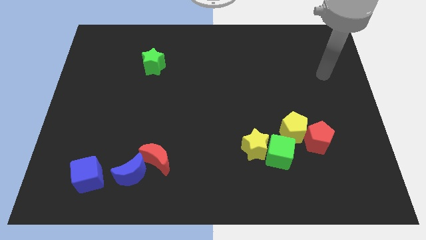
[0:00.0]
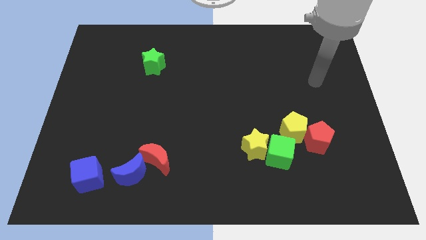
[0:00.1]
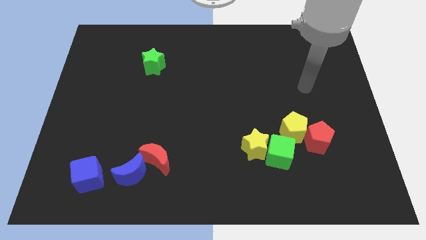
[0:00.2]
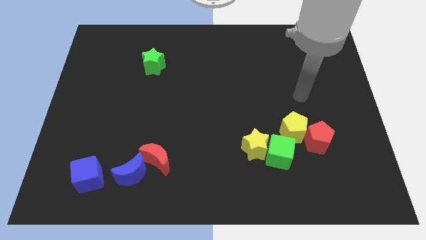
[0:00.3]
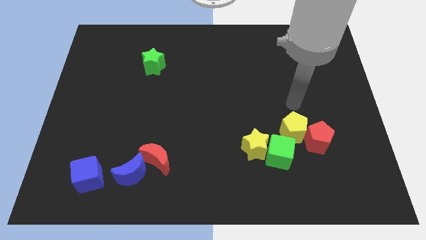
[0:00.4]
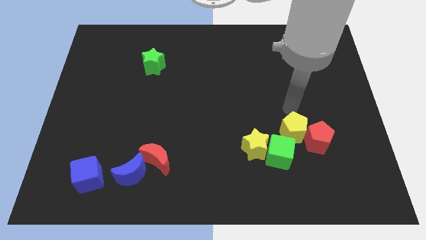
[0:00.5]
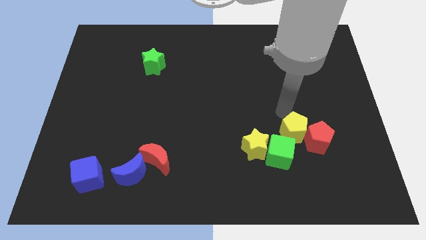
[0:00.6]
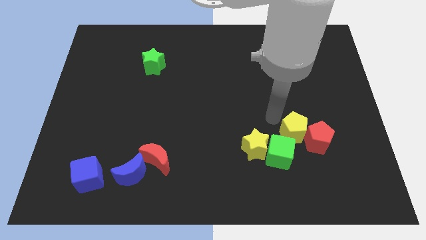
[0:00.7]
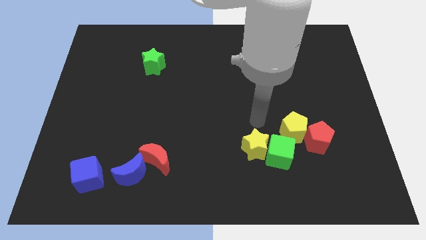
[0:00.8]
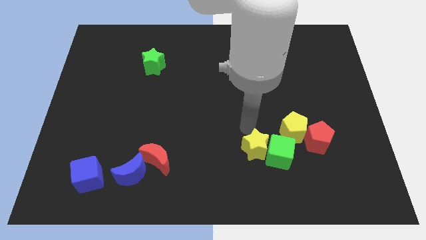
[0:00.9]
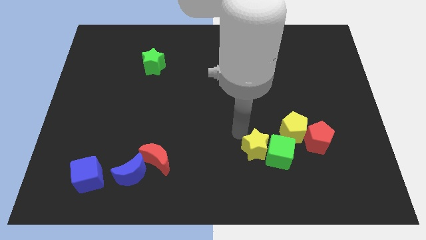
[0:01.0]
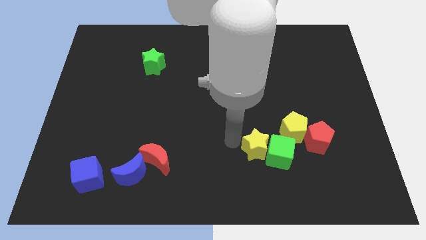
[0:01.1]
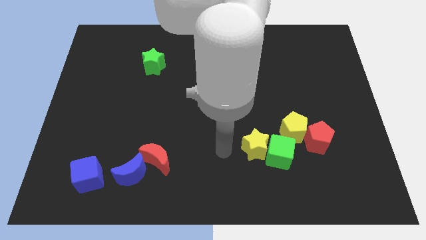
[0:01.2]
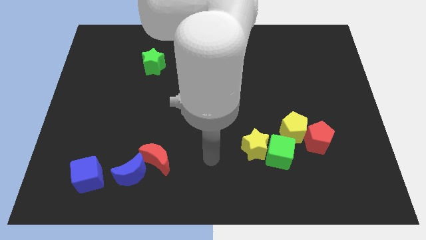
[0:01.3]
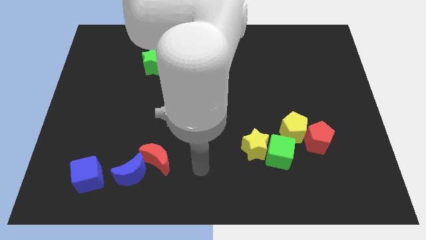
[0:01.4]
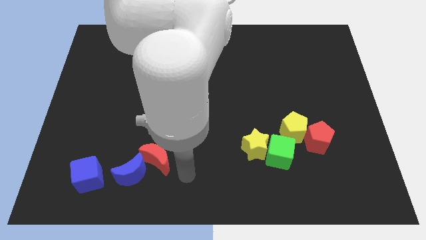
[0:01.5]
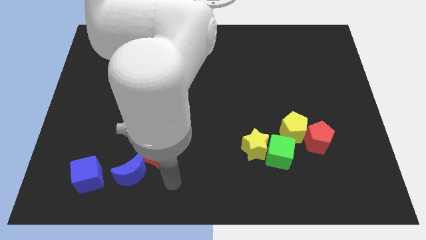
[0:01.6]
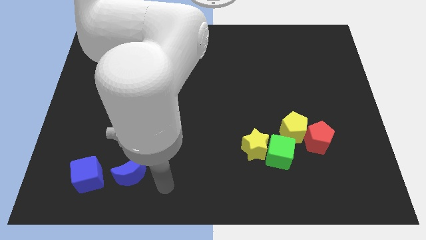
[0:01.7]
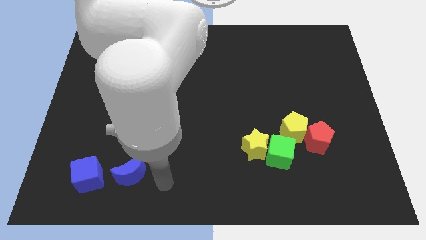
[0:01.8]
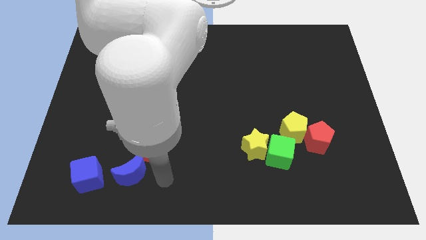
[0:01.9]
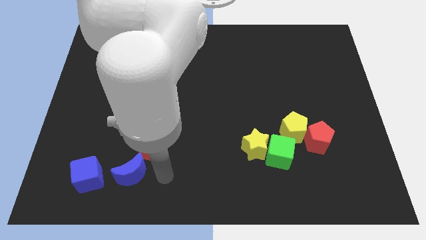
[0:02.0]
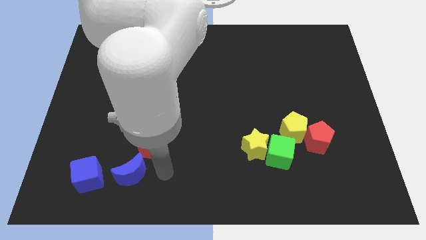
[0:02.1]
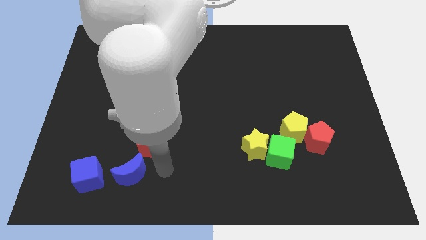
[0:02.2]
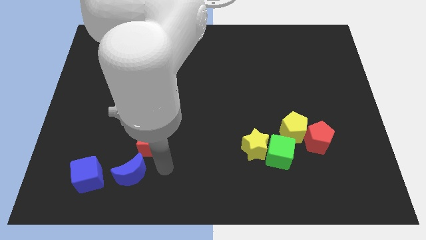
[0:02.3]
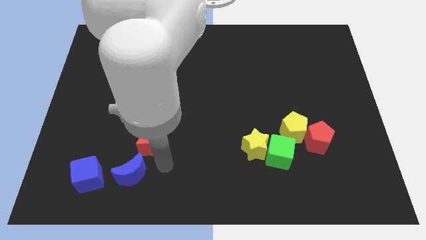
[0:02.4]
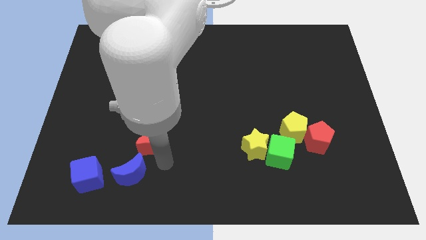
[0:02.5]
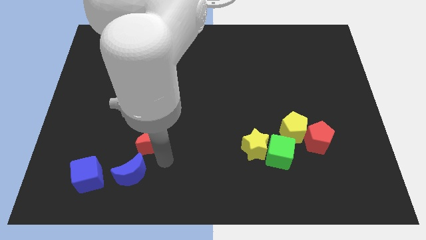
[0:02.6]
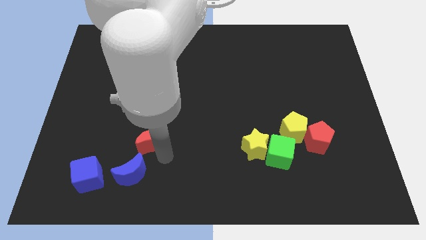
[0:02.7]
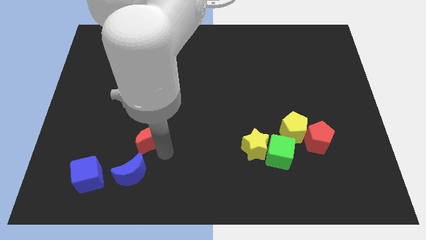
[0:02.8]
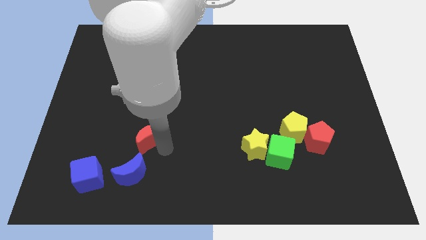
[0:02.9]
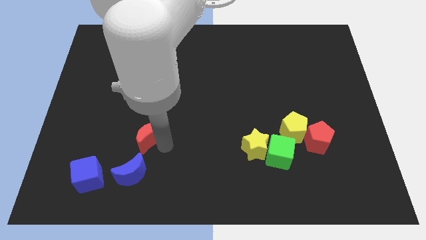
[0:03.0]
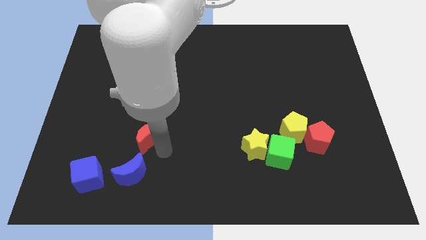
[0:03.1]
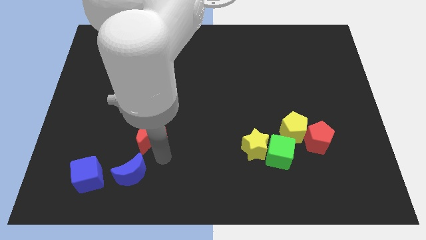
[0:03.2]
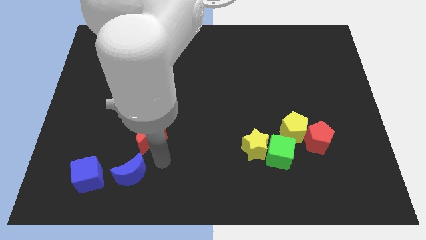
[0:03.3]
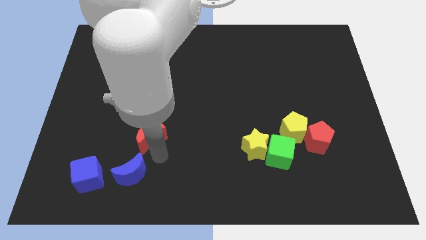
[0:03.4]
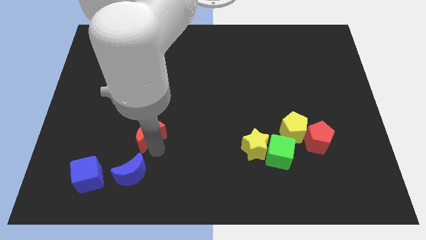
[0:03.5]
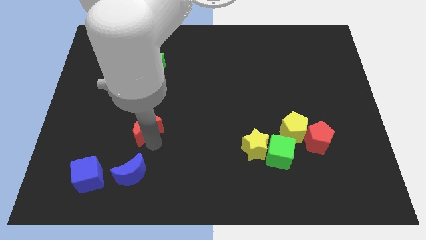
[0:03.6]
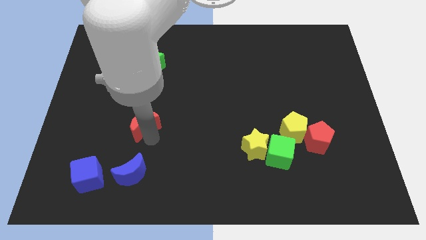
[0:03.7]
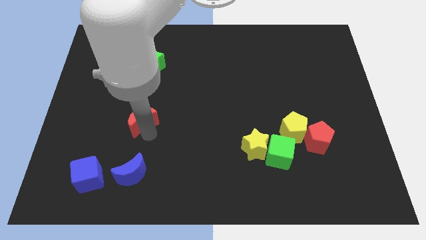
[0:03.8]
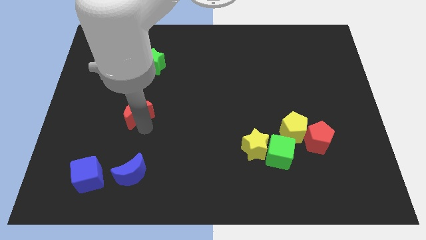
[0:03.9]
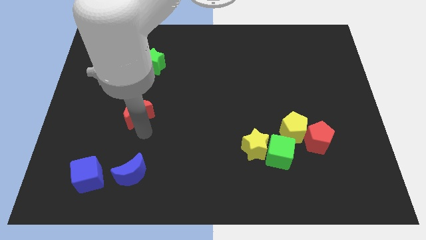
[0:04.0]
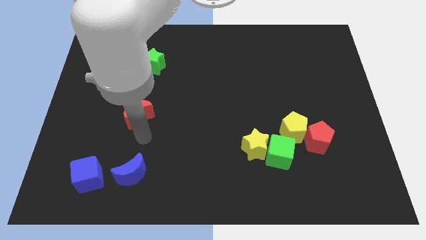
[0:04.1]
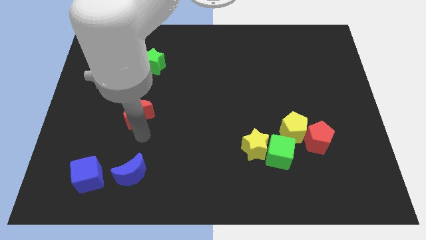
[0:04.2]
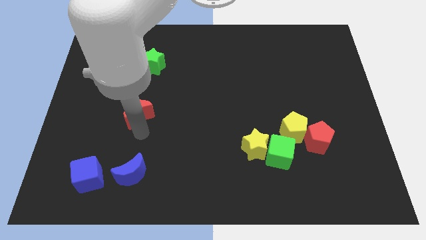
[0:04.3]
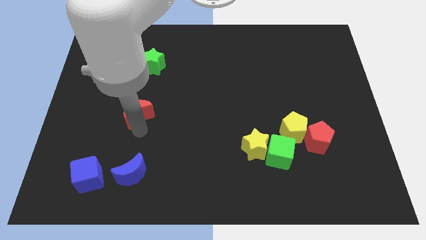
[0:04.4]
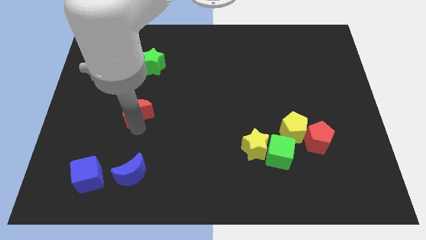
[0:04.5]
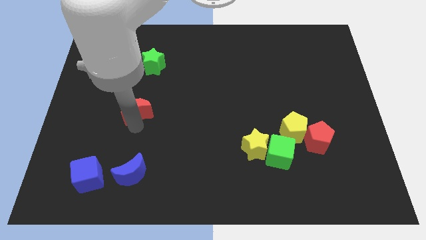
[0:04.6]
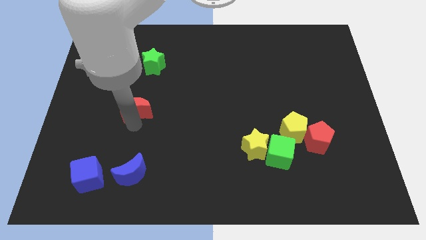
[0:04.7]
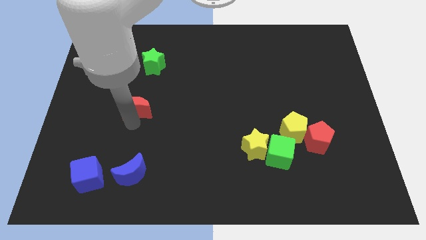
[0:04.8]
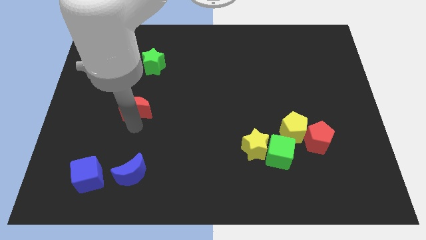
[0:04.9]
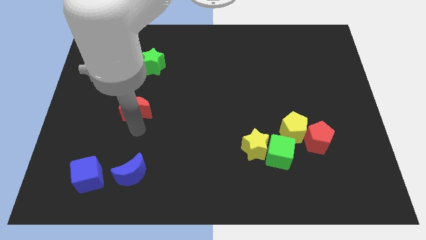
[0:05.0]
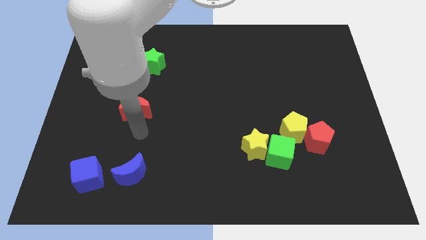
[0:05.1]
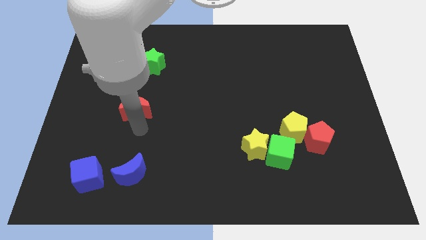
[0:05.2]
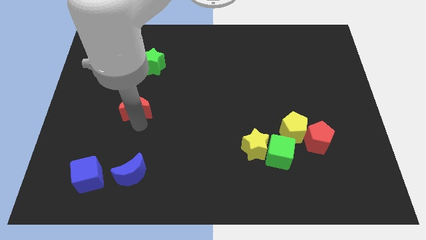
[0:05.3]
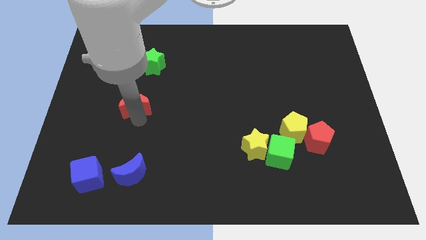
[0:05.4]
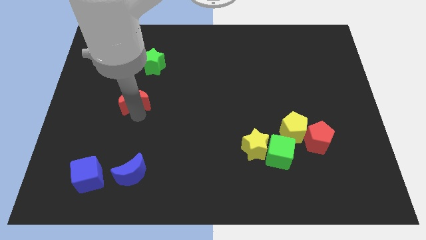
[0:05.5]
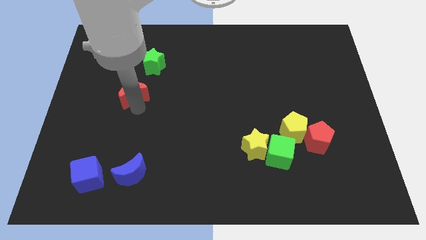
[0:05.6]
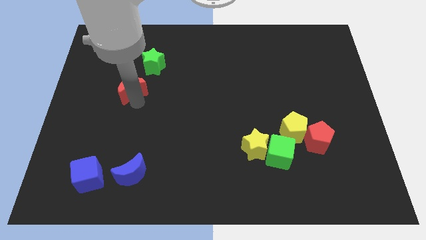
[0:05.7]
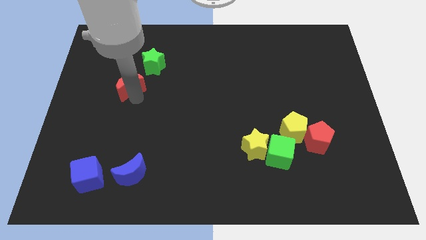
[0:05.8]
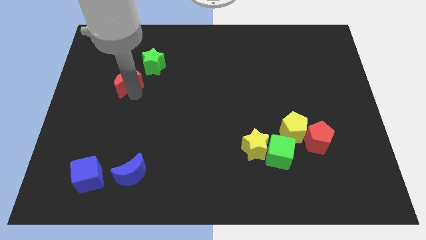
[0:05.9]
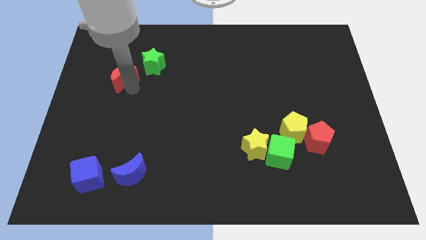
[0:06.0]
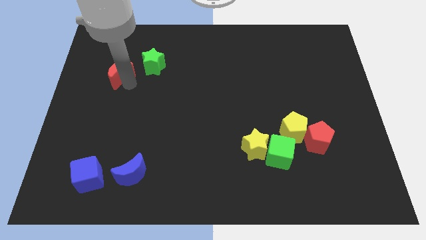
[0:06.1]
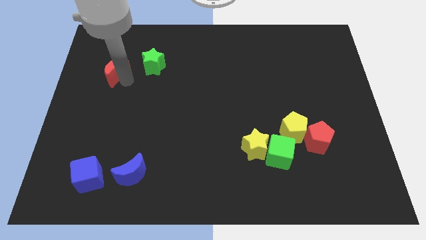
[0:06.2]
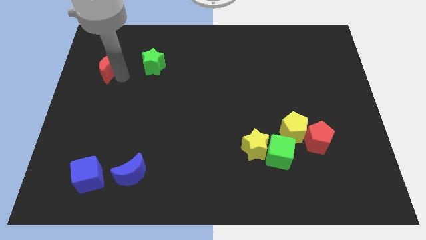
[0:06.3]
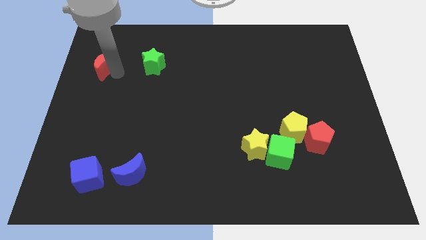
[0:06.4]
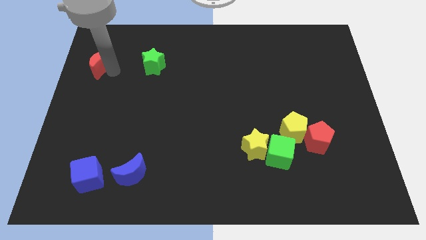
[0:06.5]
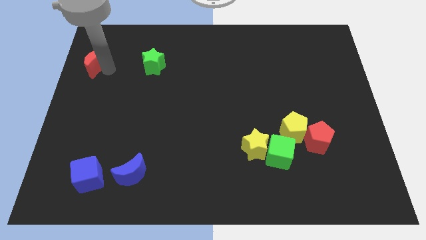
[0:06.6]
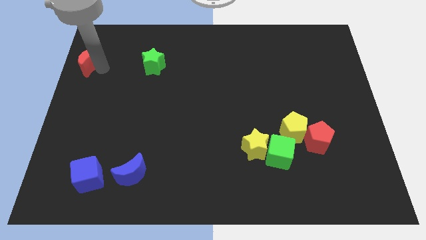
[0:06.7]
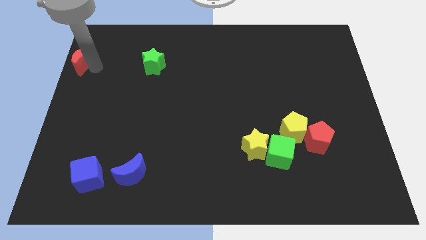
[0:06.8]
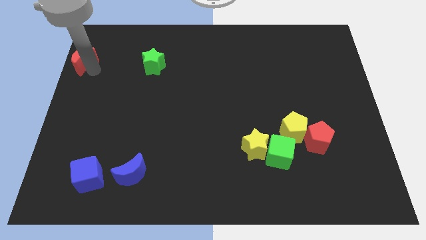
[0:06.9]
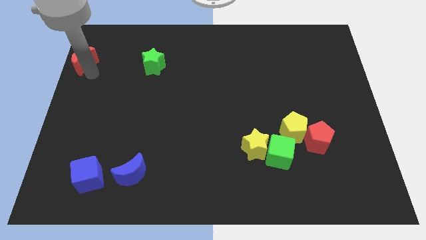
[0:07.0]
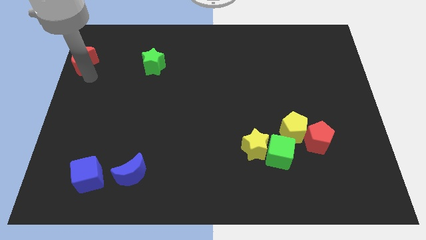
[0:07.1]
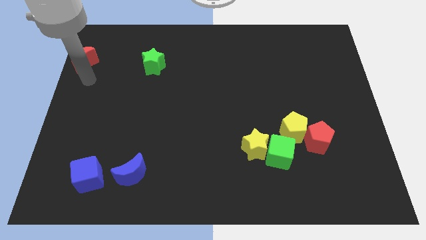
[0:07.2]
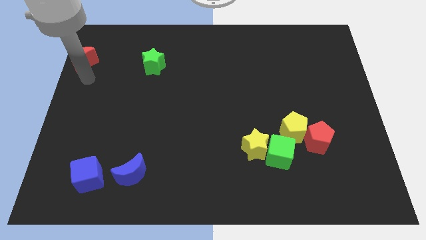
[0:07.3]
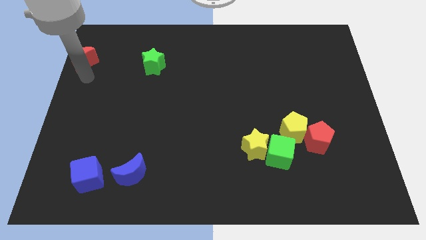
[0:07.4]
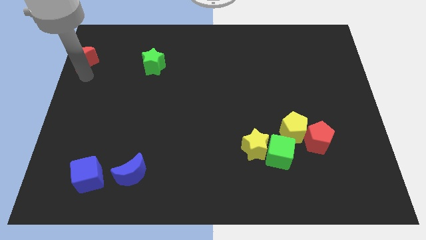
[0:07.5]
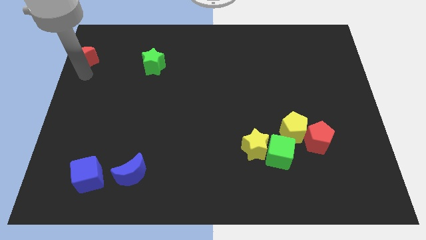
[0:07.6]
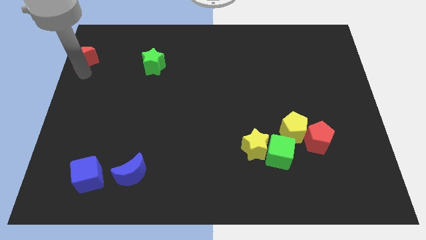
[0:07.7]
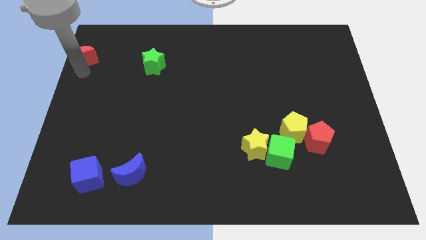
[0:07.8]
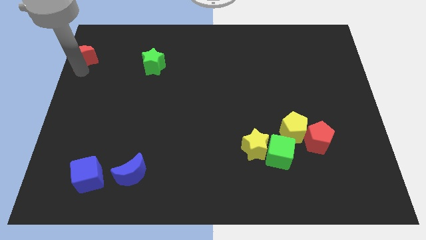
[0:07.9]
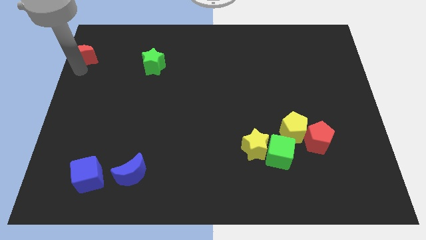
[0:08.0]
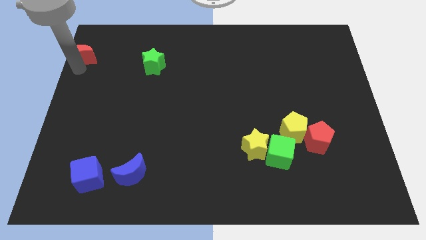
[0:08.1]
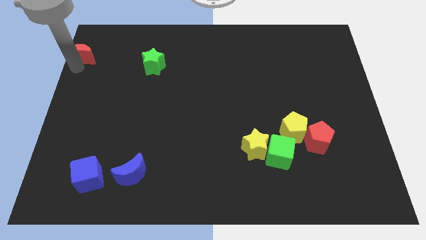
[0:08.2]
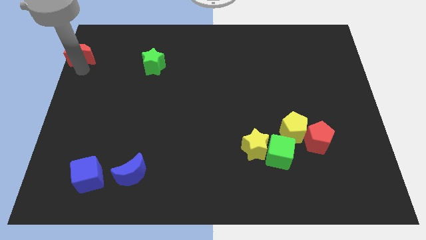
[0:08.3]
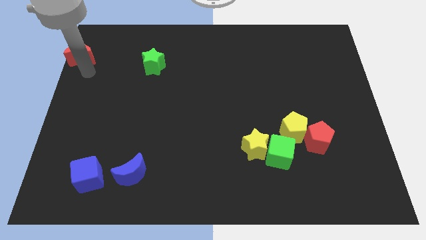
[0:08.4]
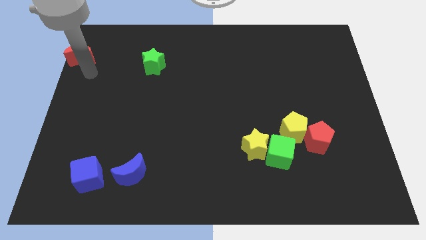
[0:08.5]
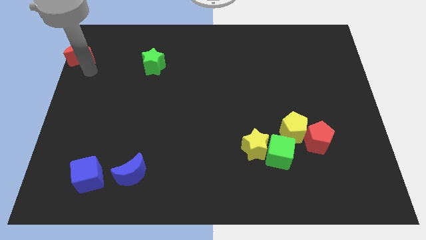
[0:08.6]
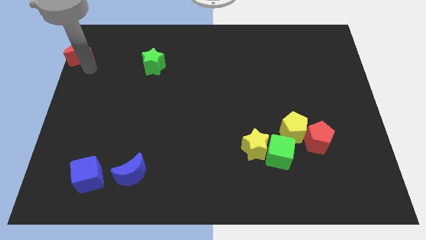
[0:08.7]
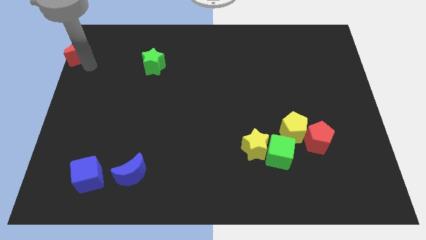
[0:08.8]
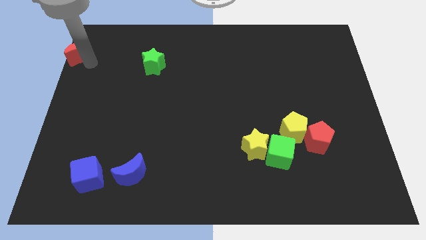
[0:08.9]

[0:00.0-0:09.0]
push the red moon to the top left corner
